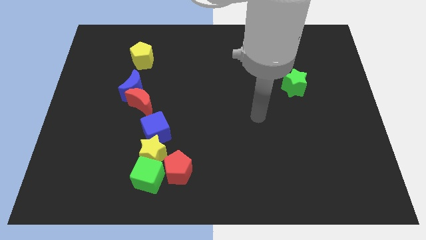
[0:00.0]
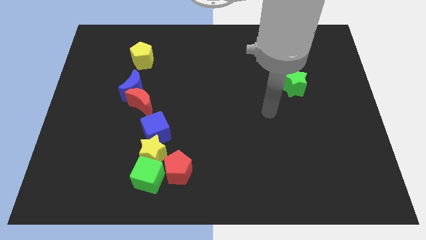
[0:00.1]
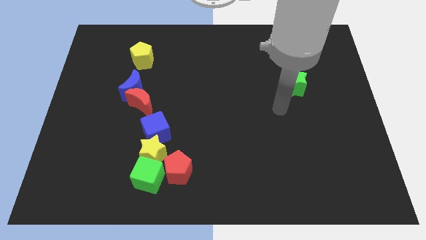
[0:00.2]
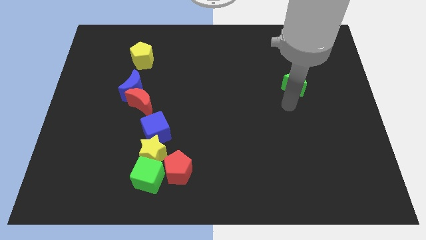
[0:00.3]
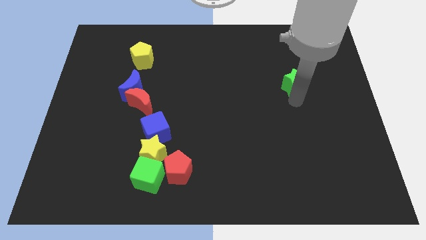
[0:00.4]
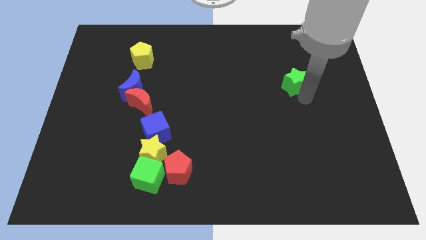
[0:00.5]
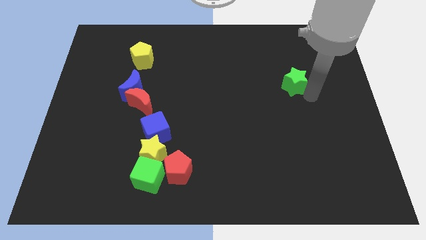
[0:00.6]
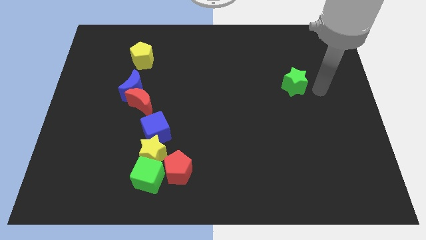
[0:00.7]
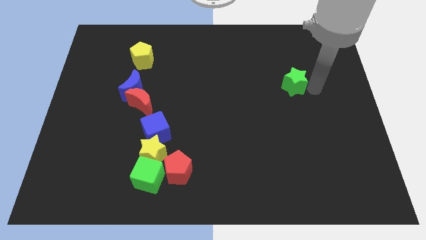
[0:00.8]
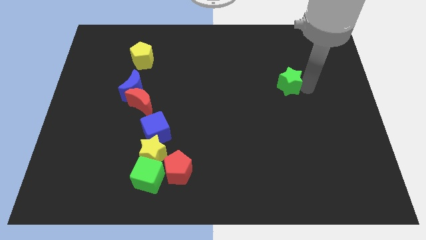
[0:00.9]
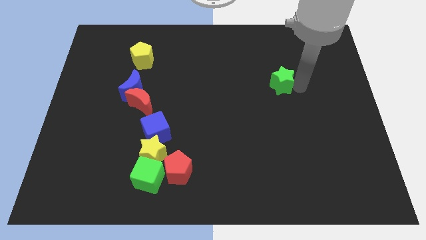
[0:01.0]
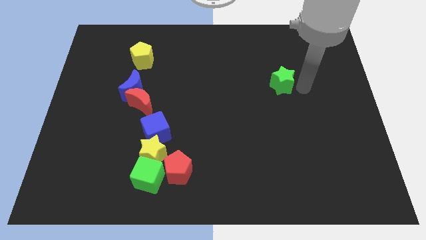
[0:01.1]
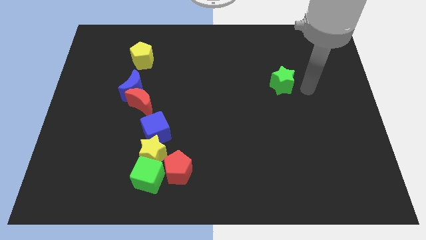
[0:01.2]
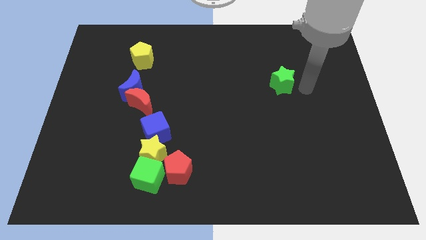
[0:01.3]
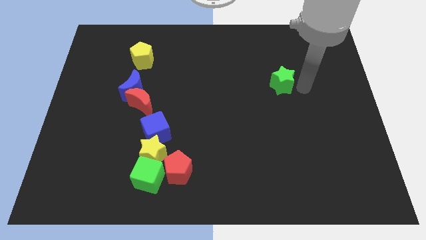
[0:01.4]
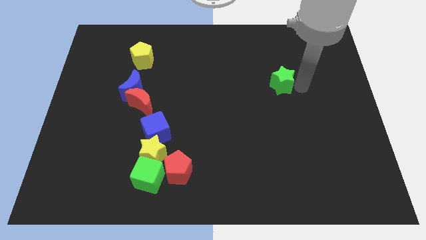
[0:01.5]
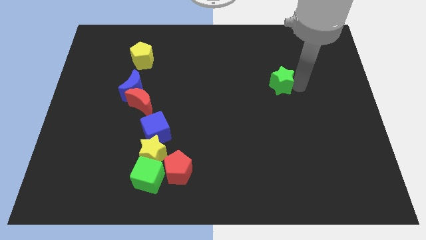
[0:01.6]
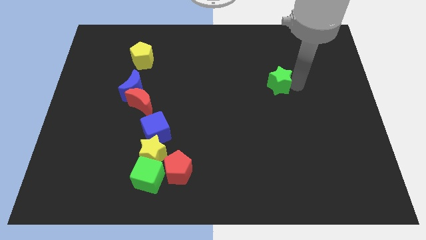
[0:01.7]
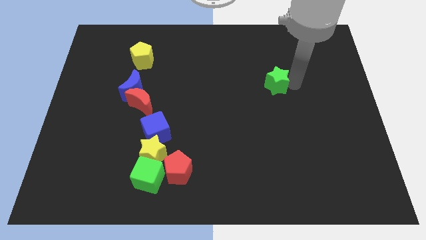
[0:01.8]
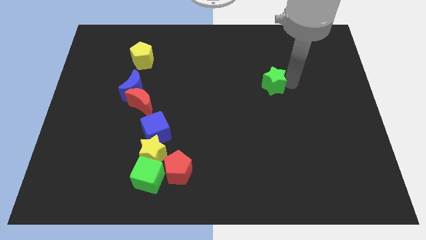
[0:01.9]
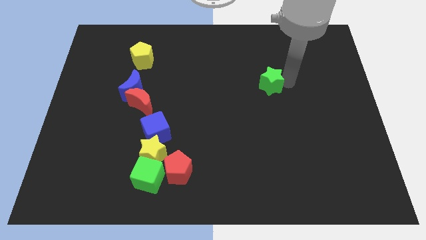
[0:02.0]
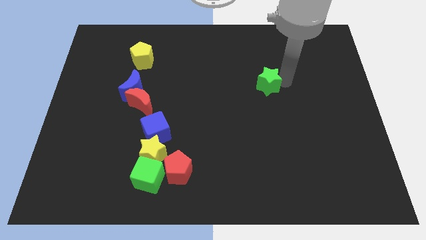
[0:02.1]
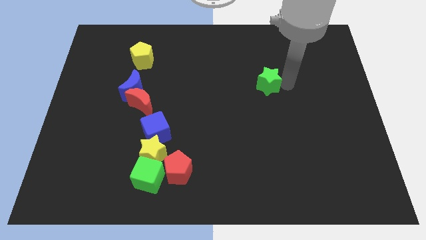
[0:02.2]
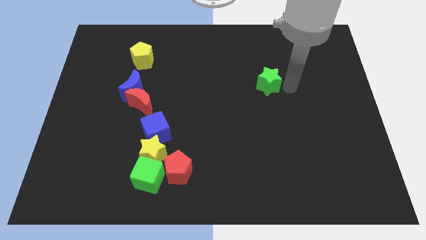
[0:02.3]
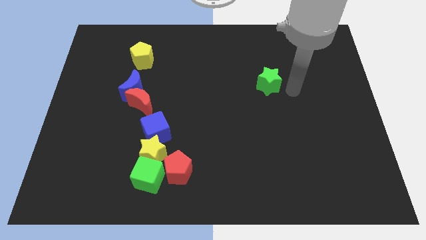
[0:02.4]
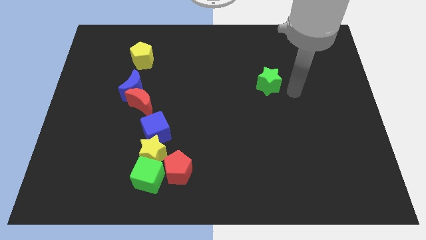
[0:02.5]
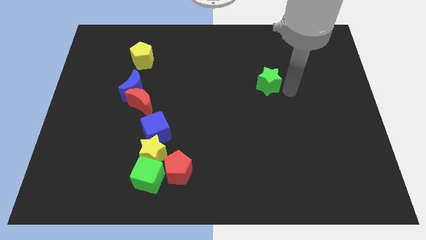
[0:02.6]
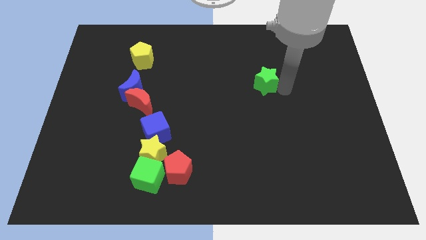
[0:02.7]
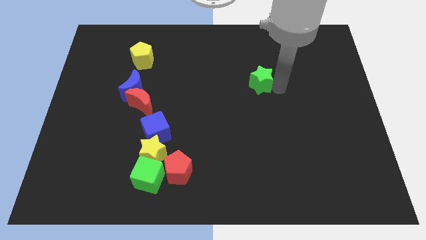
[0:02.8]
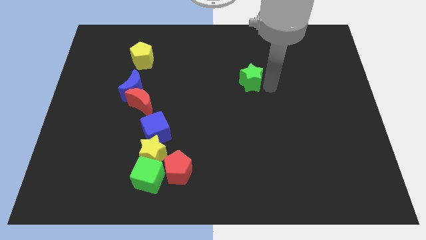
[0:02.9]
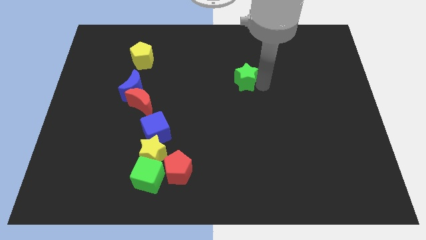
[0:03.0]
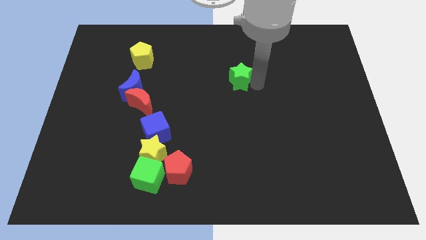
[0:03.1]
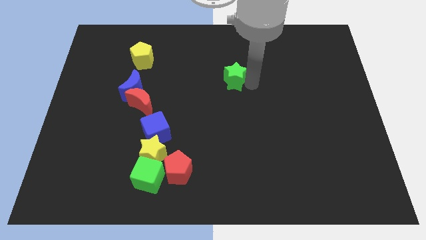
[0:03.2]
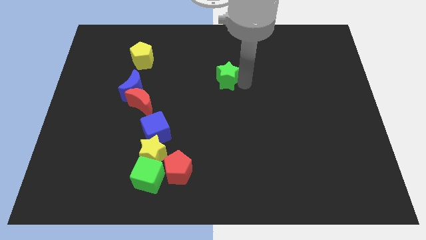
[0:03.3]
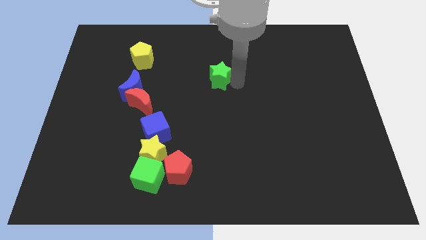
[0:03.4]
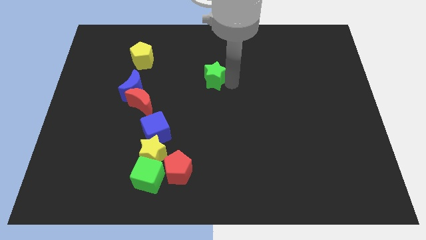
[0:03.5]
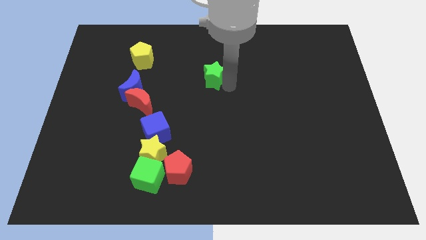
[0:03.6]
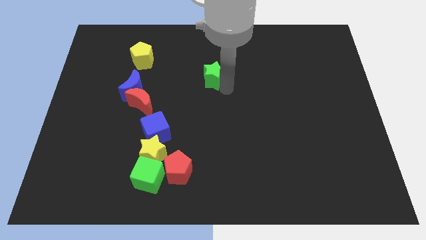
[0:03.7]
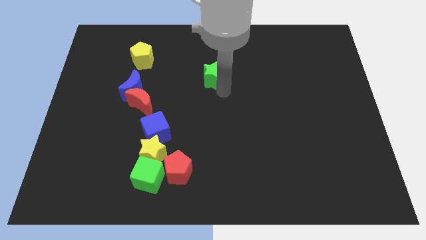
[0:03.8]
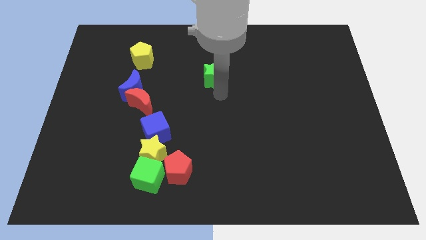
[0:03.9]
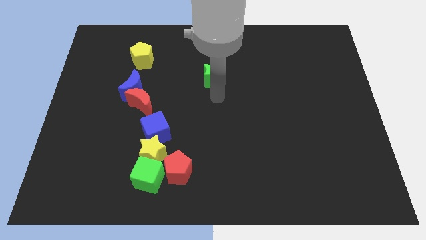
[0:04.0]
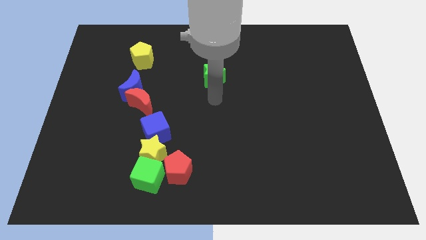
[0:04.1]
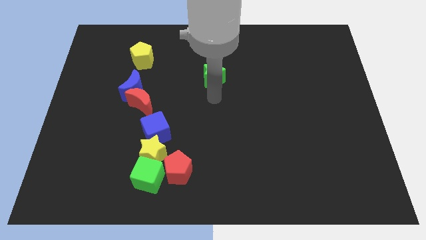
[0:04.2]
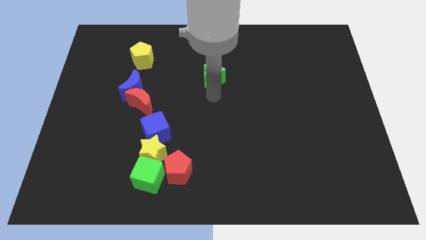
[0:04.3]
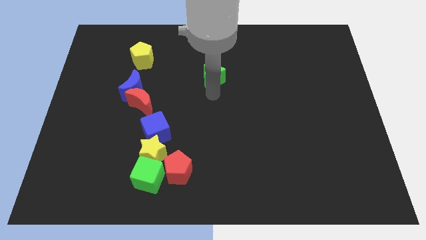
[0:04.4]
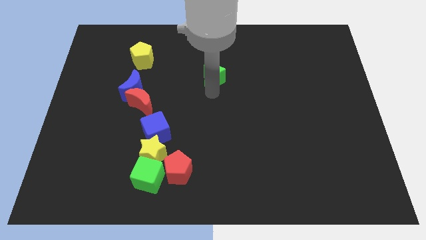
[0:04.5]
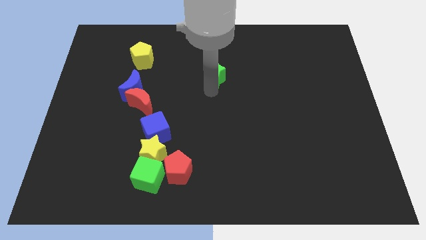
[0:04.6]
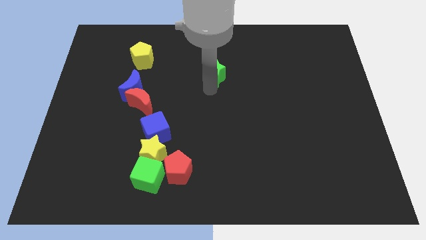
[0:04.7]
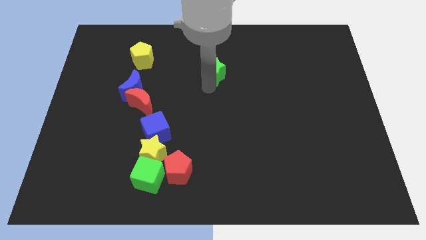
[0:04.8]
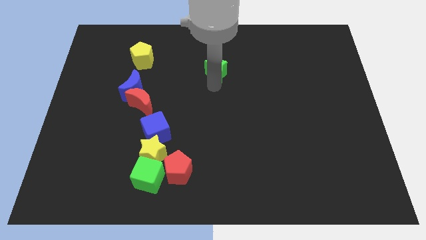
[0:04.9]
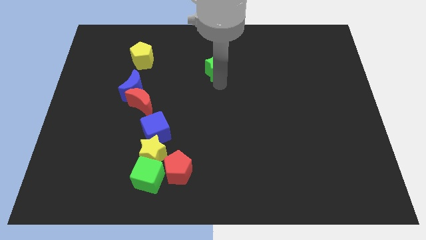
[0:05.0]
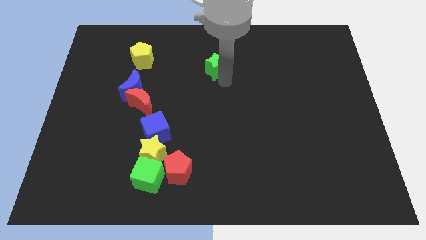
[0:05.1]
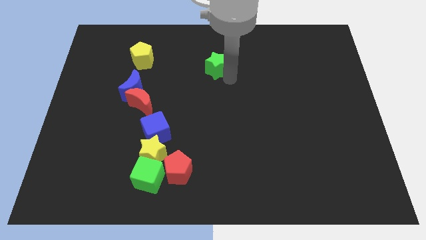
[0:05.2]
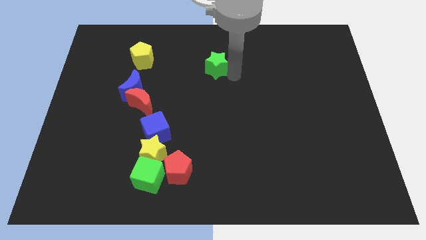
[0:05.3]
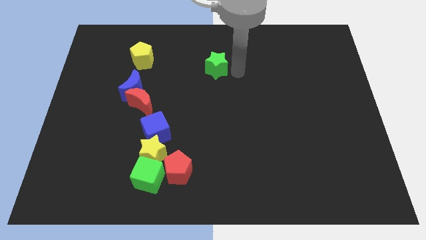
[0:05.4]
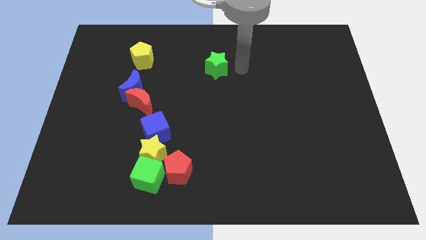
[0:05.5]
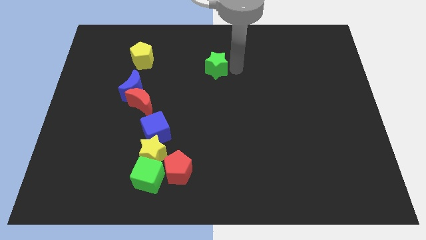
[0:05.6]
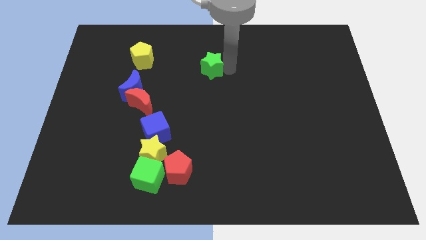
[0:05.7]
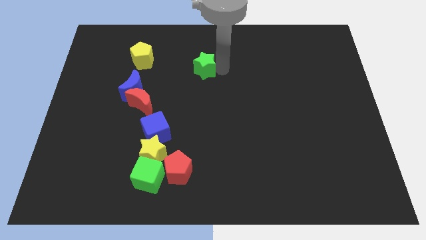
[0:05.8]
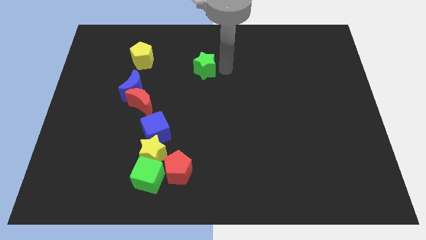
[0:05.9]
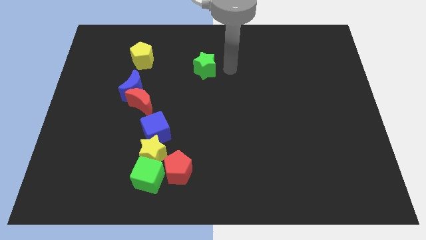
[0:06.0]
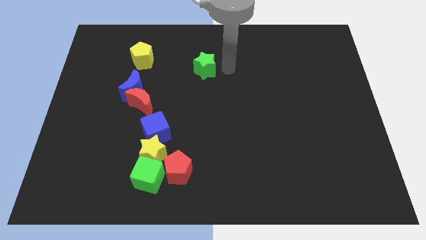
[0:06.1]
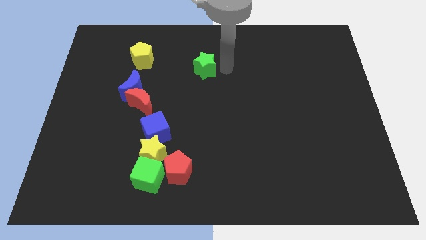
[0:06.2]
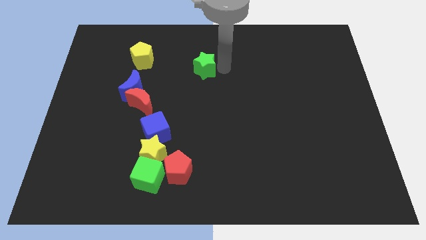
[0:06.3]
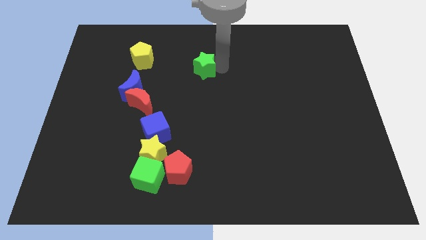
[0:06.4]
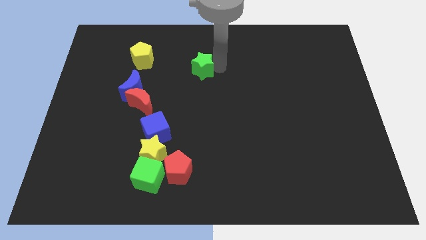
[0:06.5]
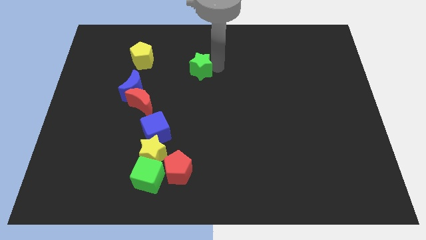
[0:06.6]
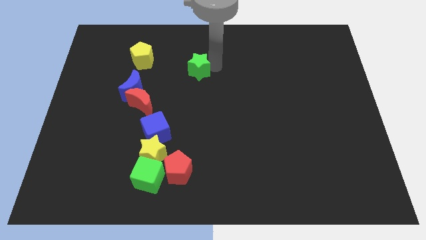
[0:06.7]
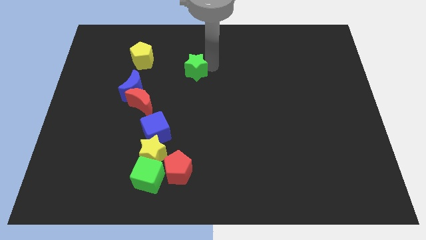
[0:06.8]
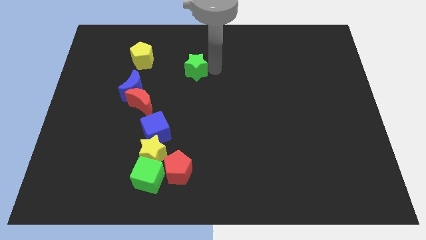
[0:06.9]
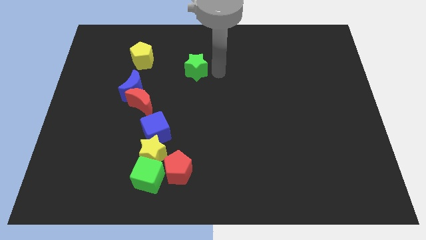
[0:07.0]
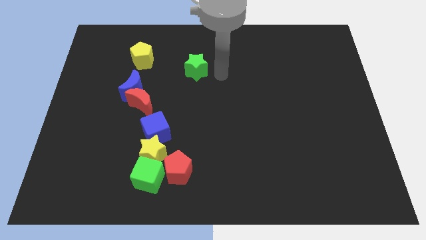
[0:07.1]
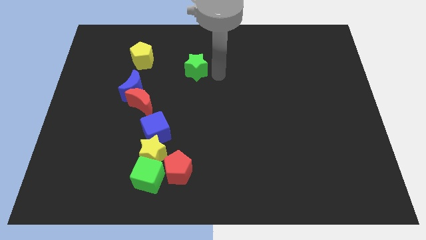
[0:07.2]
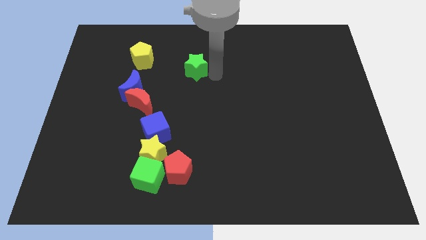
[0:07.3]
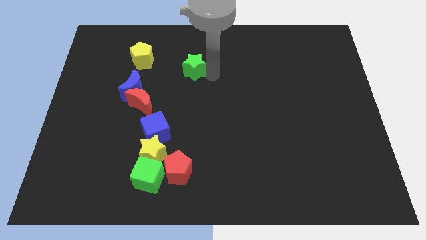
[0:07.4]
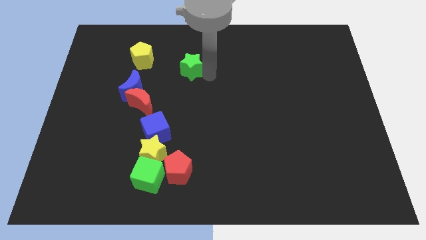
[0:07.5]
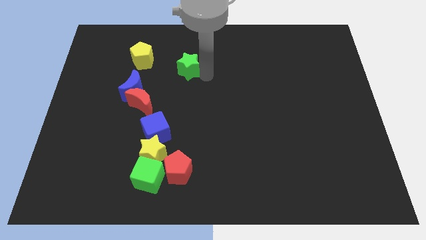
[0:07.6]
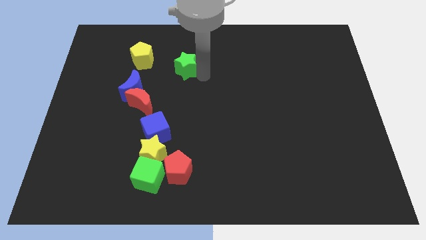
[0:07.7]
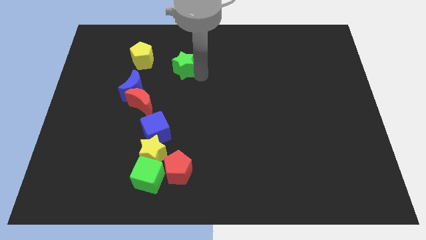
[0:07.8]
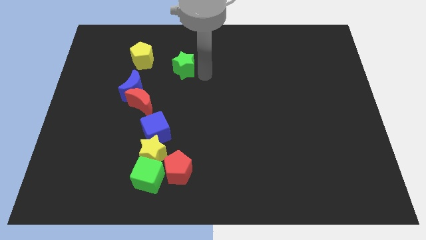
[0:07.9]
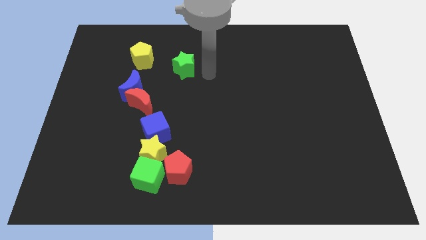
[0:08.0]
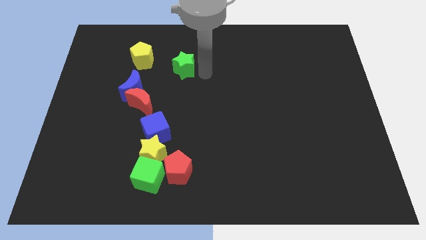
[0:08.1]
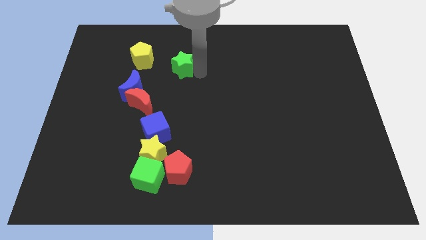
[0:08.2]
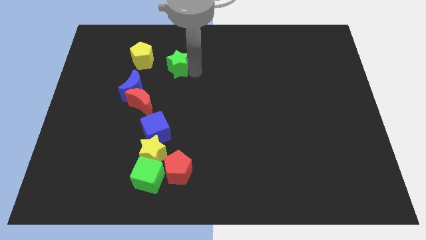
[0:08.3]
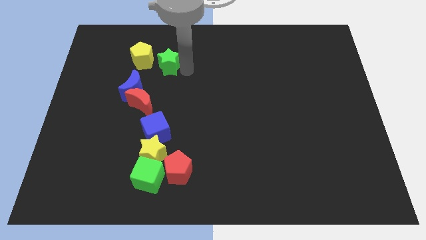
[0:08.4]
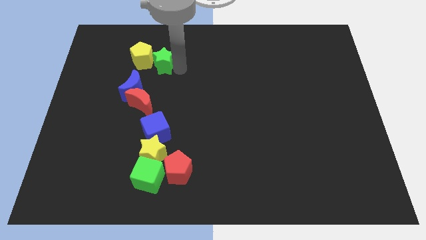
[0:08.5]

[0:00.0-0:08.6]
put the green star close to the yellow pentagon
